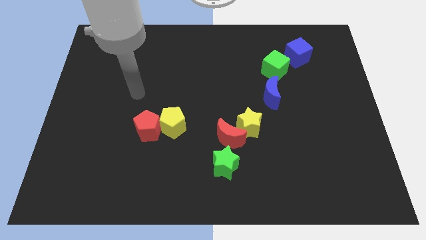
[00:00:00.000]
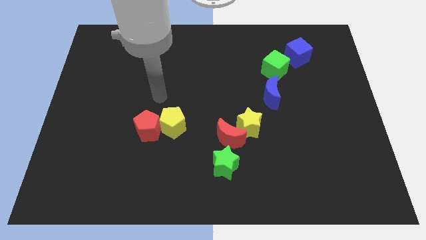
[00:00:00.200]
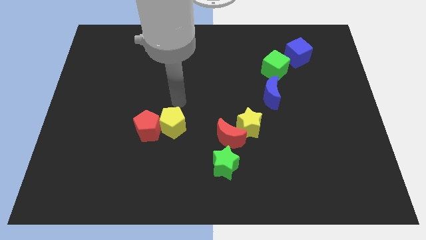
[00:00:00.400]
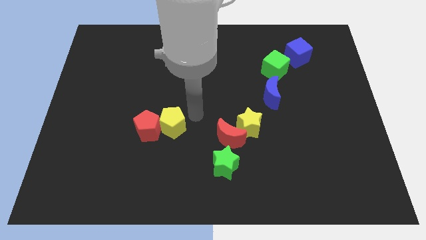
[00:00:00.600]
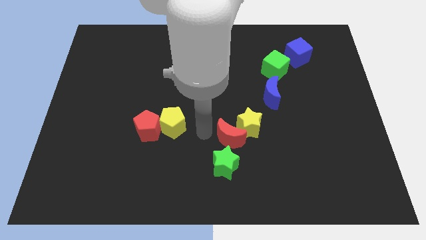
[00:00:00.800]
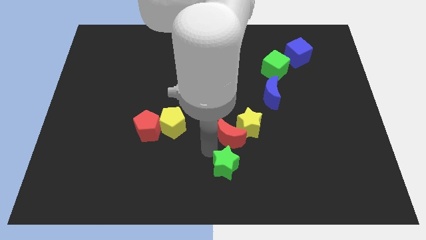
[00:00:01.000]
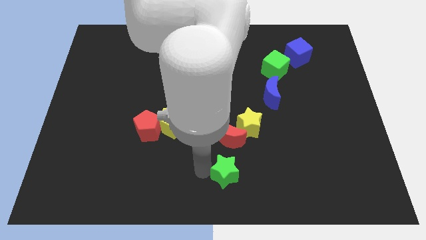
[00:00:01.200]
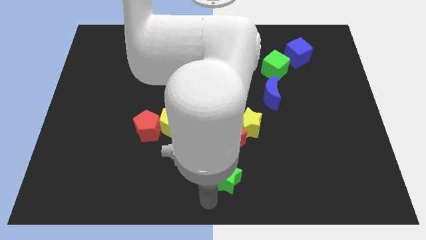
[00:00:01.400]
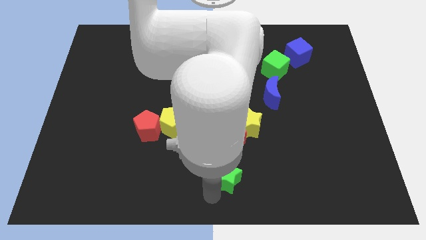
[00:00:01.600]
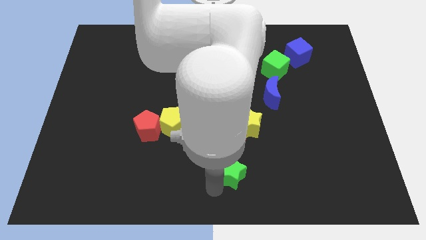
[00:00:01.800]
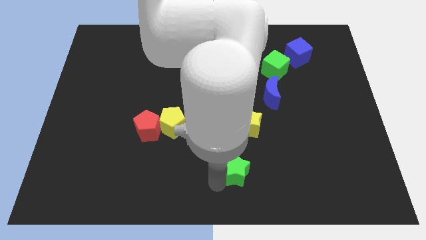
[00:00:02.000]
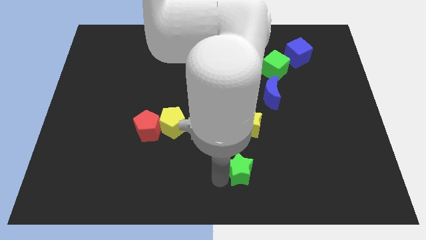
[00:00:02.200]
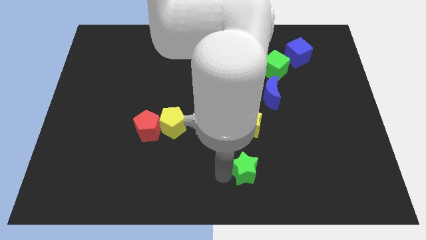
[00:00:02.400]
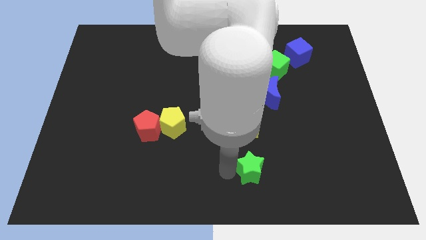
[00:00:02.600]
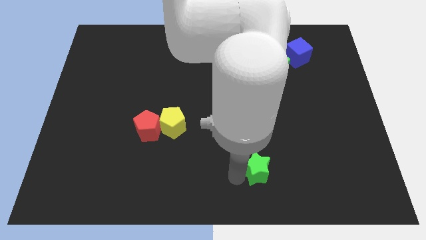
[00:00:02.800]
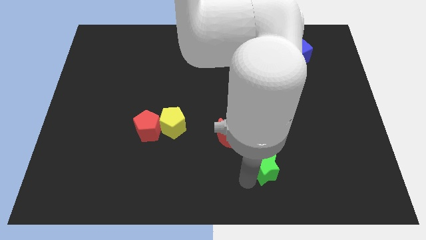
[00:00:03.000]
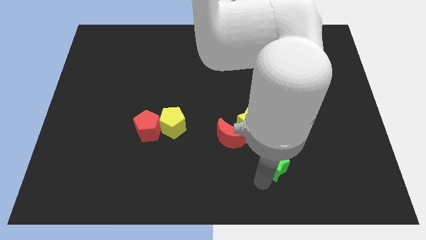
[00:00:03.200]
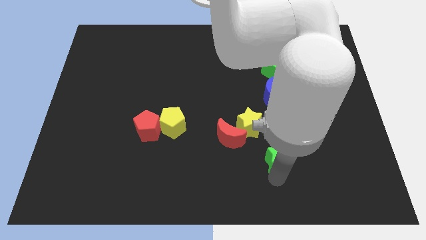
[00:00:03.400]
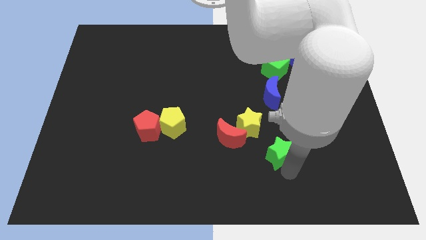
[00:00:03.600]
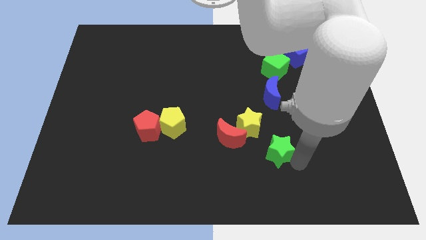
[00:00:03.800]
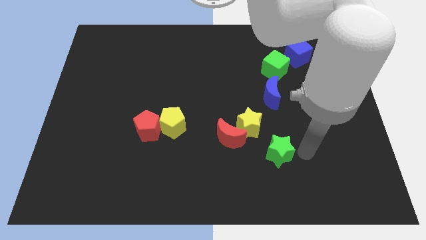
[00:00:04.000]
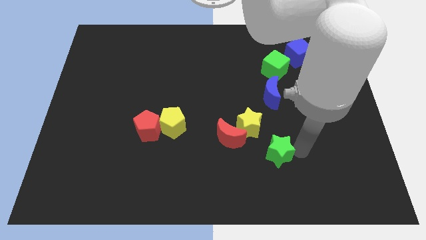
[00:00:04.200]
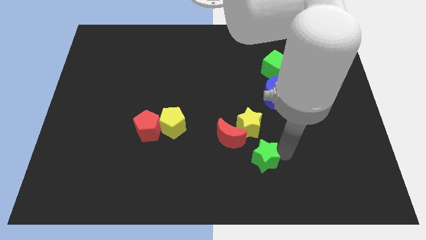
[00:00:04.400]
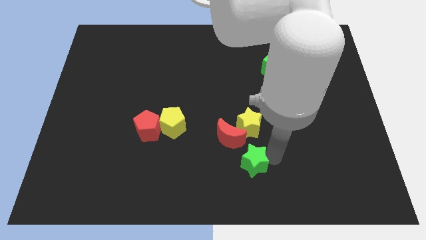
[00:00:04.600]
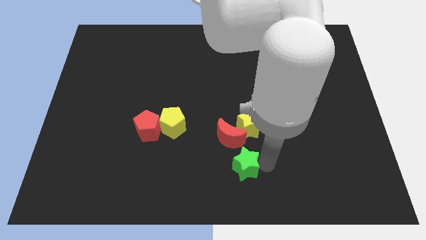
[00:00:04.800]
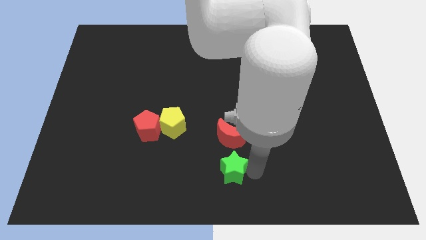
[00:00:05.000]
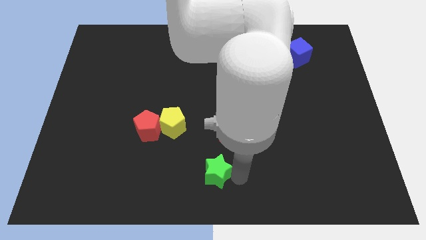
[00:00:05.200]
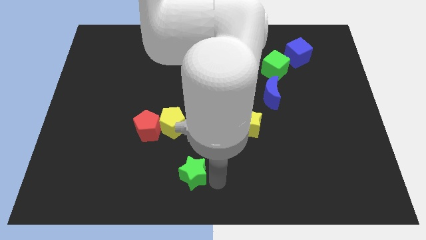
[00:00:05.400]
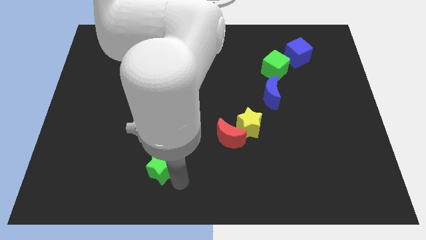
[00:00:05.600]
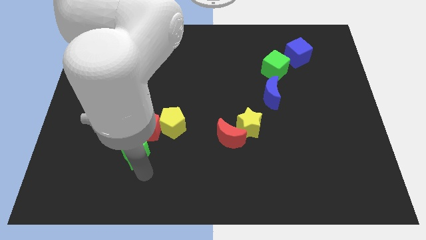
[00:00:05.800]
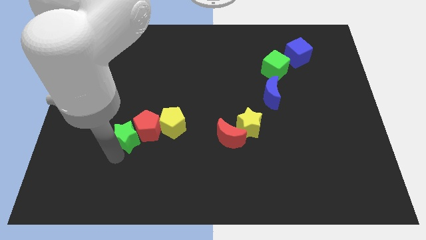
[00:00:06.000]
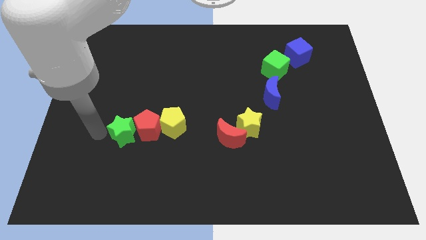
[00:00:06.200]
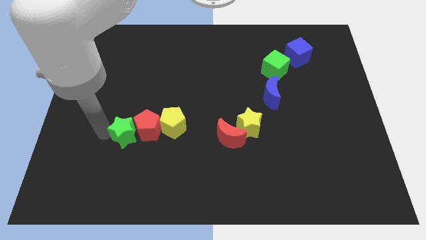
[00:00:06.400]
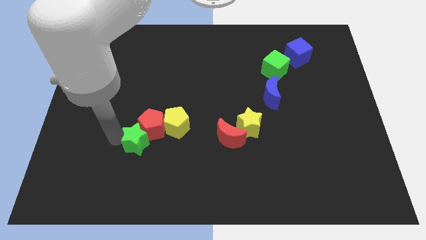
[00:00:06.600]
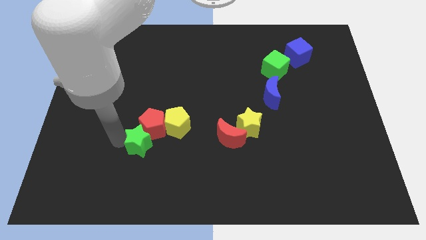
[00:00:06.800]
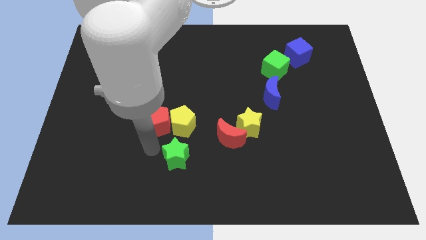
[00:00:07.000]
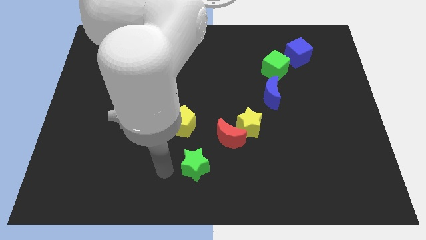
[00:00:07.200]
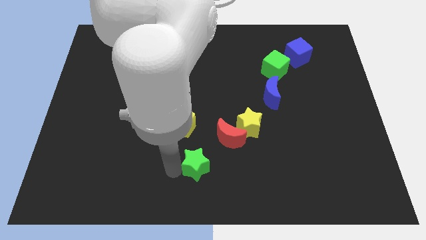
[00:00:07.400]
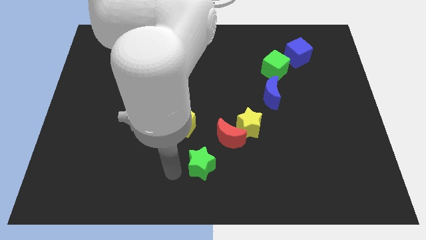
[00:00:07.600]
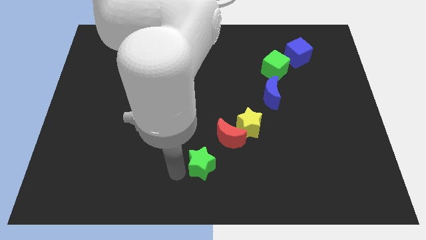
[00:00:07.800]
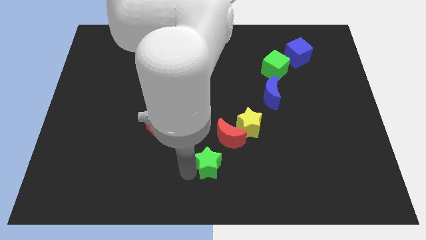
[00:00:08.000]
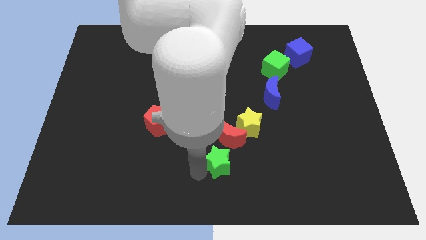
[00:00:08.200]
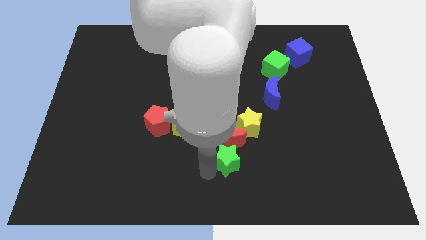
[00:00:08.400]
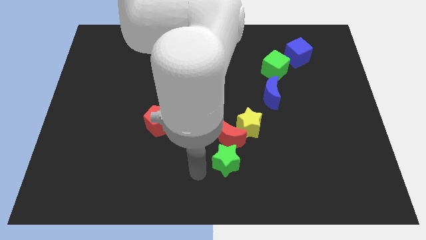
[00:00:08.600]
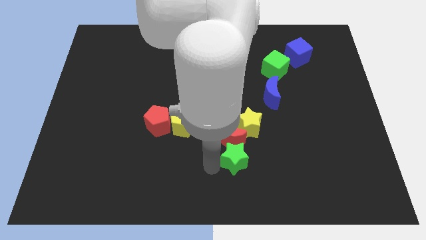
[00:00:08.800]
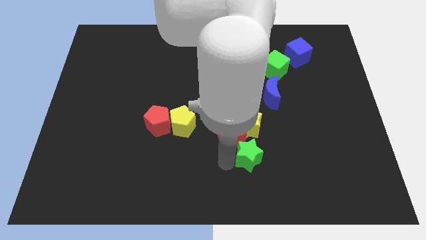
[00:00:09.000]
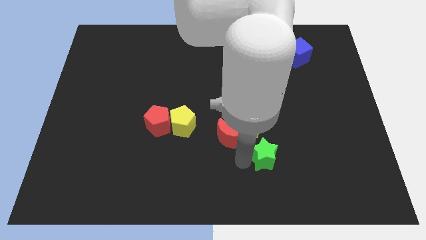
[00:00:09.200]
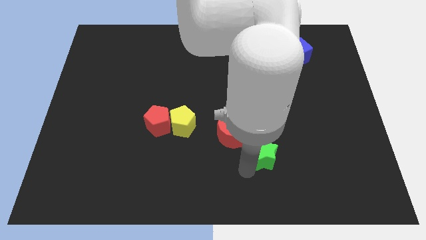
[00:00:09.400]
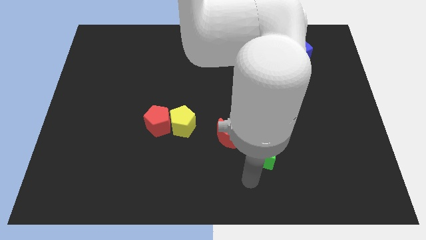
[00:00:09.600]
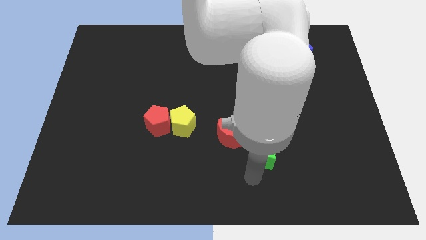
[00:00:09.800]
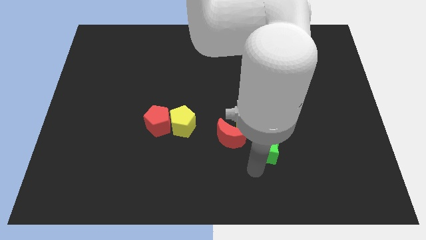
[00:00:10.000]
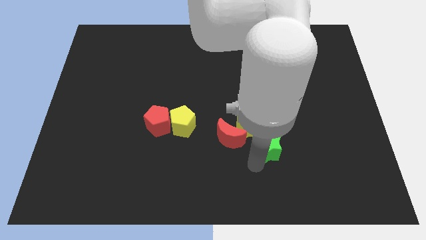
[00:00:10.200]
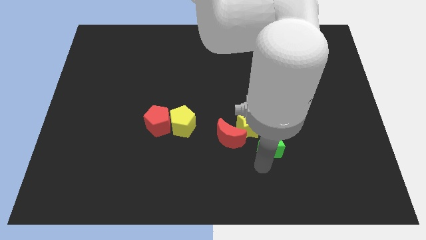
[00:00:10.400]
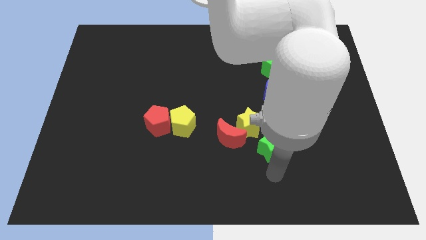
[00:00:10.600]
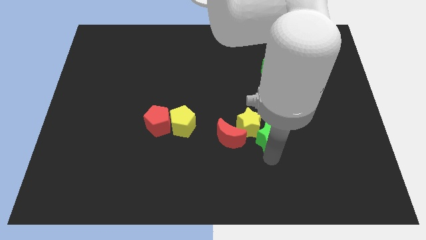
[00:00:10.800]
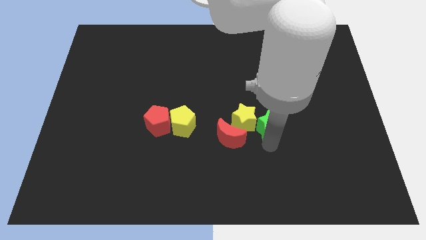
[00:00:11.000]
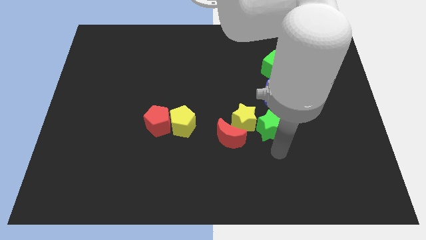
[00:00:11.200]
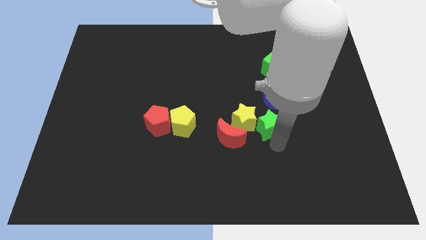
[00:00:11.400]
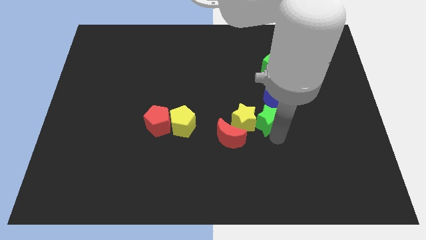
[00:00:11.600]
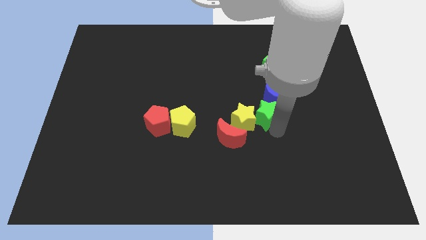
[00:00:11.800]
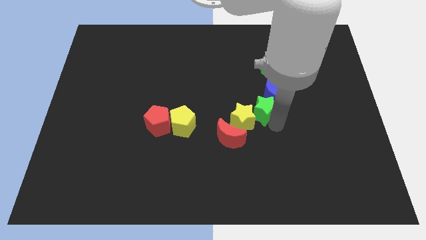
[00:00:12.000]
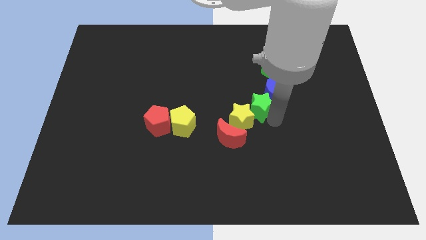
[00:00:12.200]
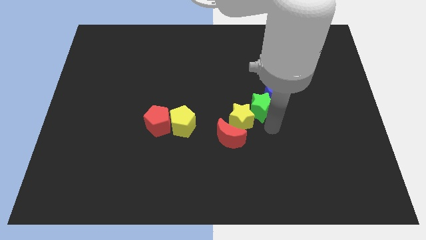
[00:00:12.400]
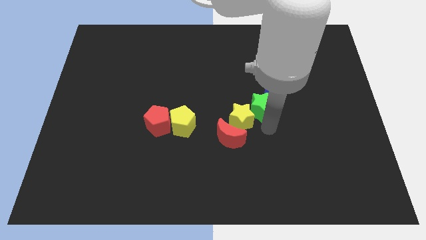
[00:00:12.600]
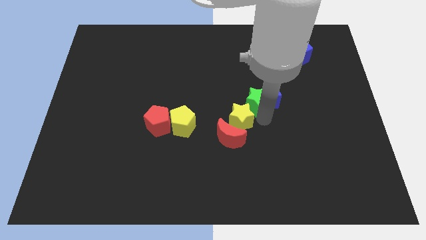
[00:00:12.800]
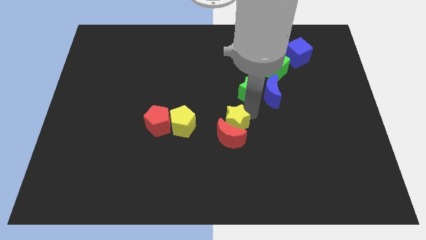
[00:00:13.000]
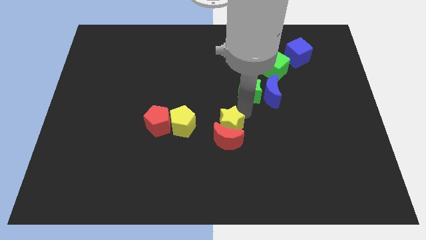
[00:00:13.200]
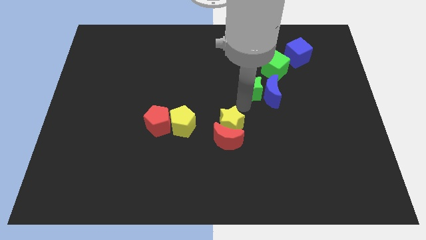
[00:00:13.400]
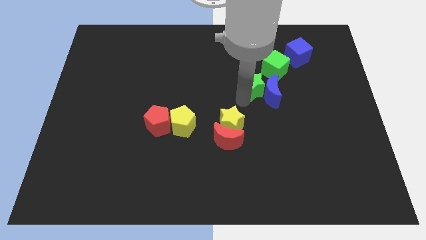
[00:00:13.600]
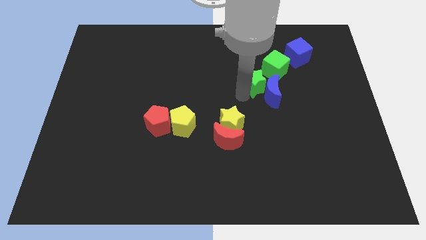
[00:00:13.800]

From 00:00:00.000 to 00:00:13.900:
move the green star above the blue moon
